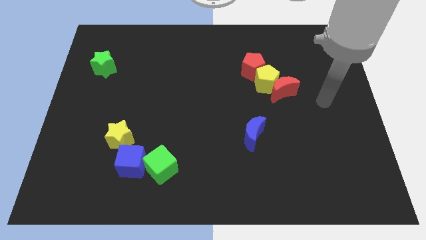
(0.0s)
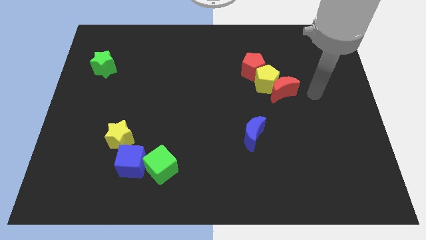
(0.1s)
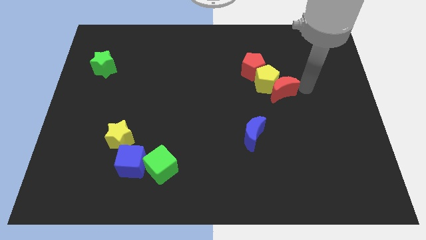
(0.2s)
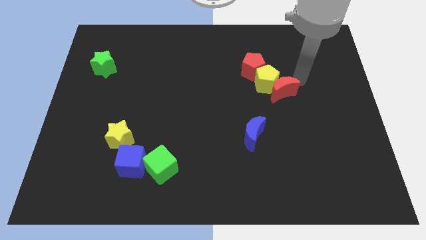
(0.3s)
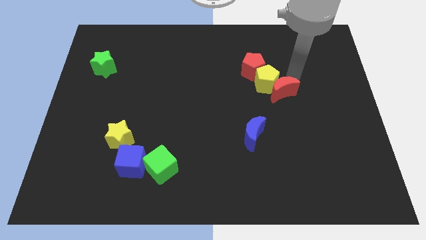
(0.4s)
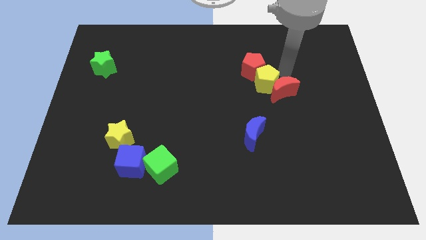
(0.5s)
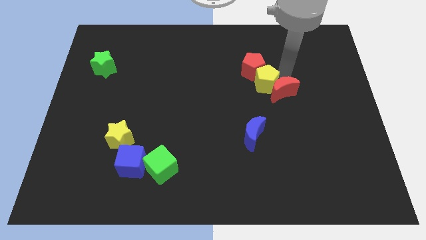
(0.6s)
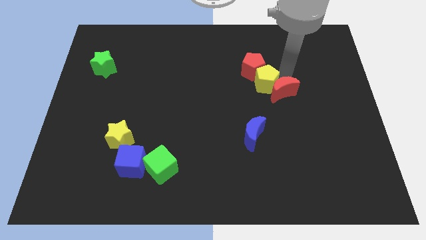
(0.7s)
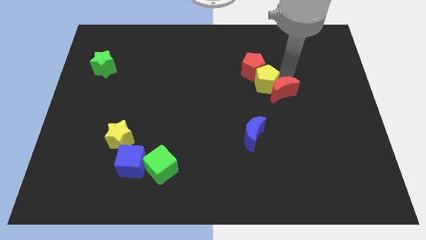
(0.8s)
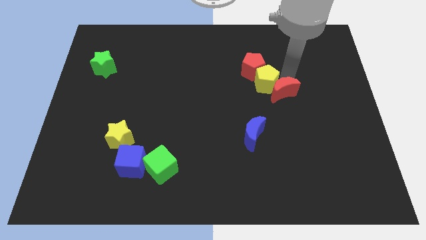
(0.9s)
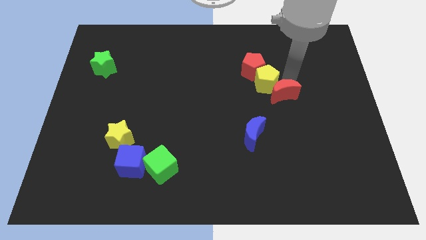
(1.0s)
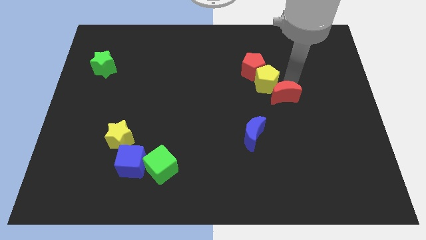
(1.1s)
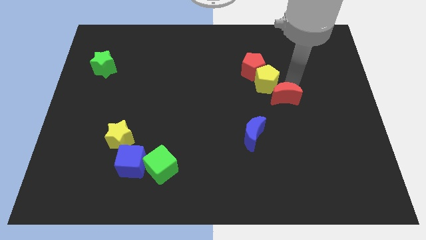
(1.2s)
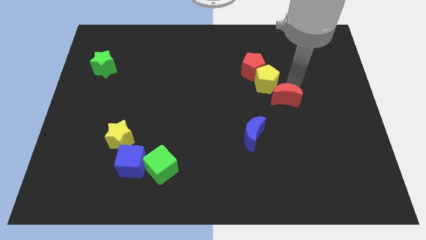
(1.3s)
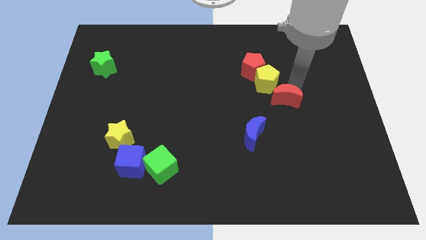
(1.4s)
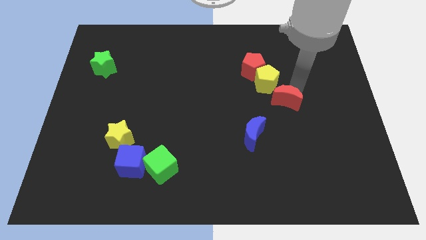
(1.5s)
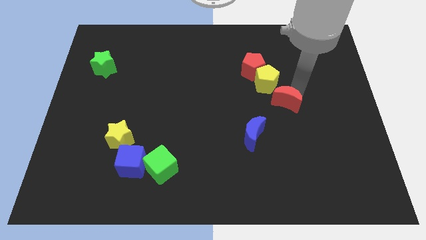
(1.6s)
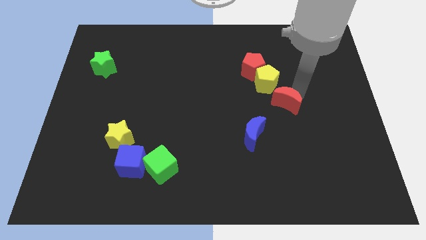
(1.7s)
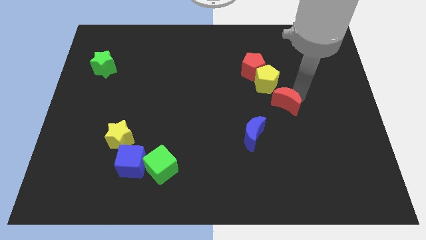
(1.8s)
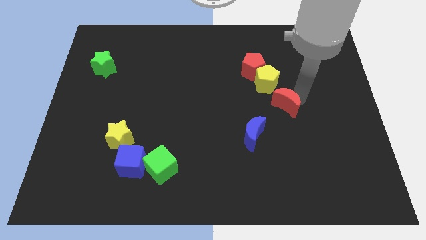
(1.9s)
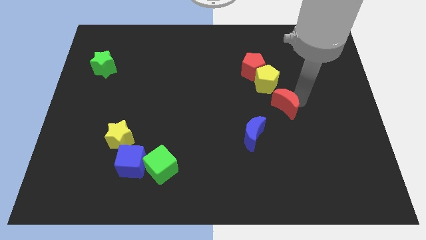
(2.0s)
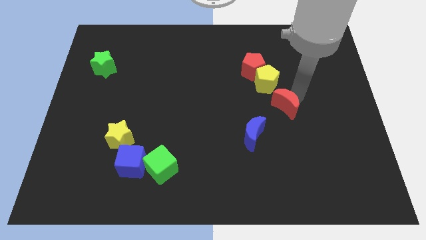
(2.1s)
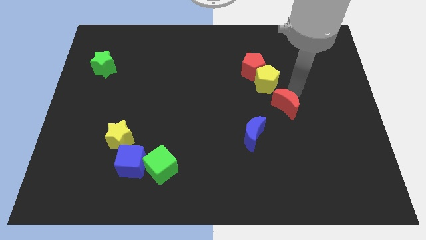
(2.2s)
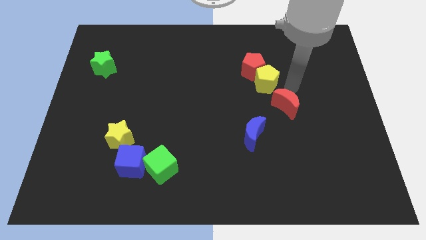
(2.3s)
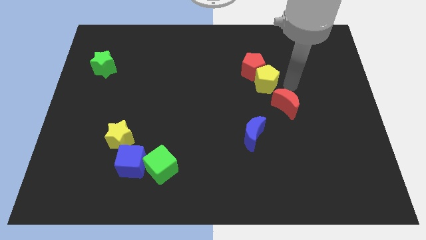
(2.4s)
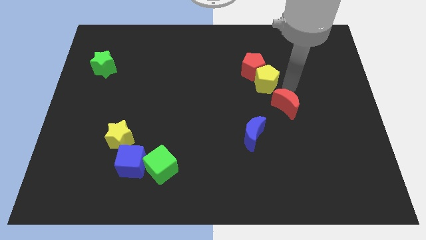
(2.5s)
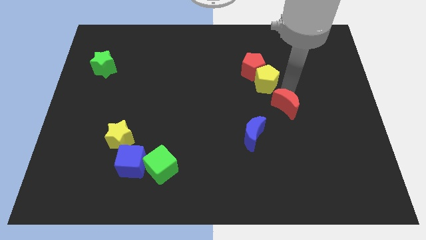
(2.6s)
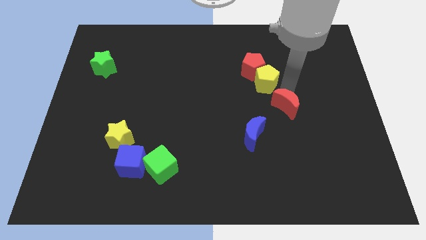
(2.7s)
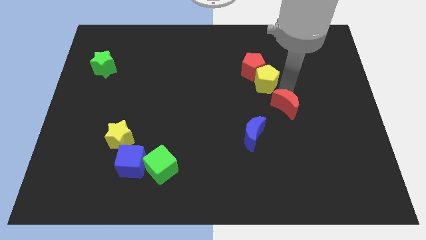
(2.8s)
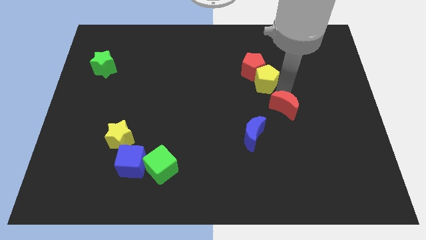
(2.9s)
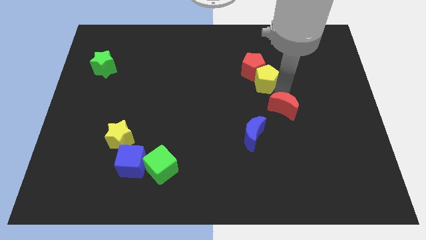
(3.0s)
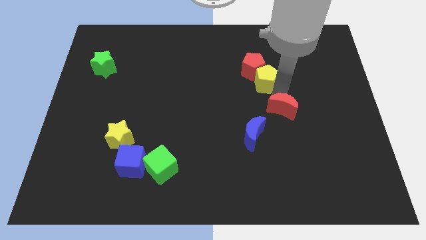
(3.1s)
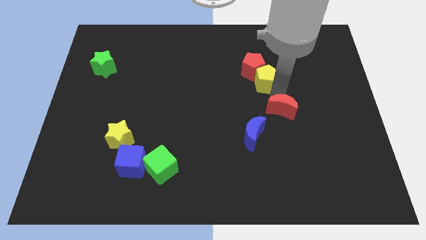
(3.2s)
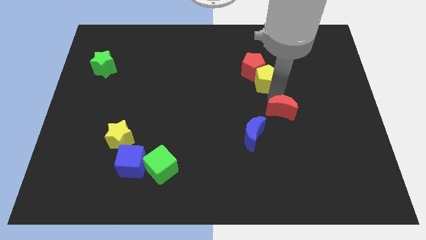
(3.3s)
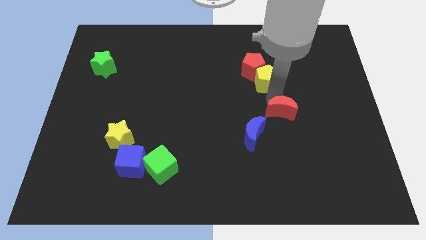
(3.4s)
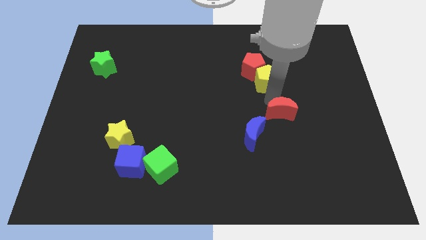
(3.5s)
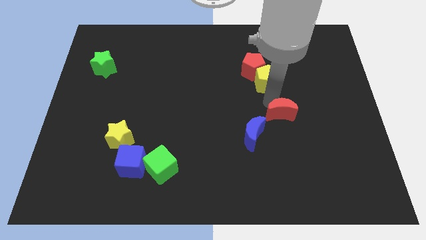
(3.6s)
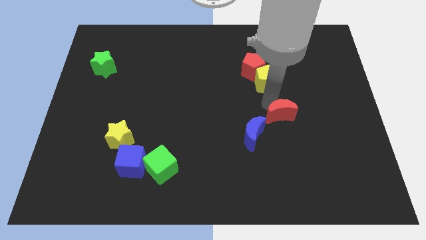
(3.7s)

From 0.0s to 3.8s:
slide the red moon a little bit down

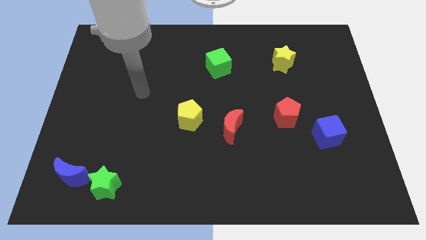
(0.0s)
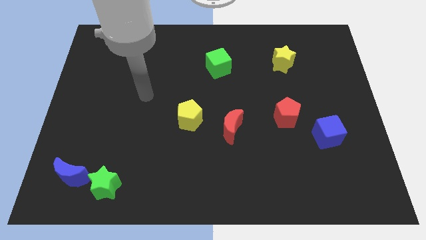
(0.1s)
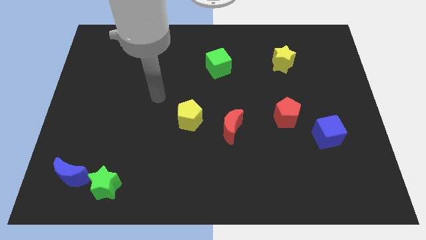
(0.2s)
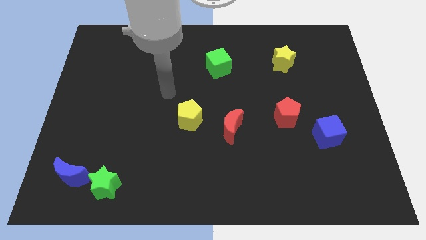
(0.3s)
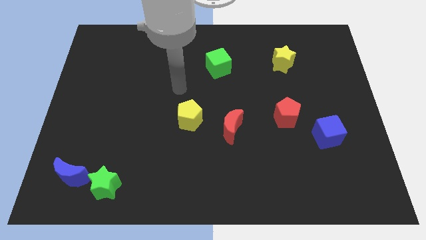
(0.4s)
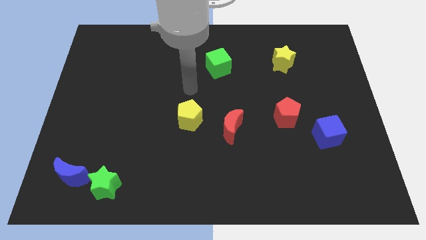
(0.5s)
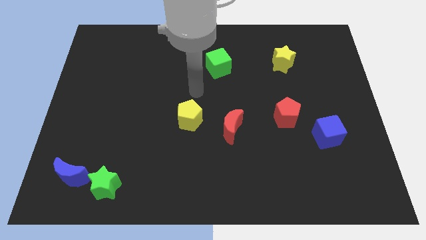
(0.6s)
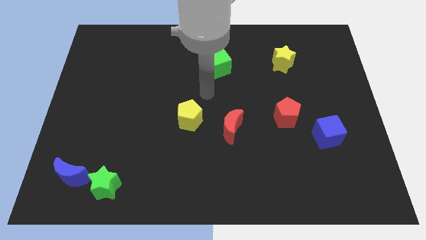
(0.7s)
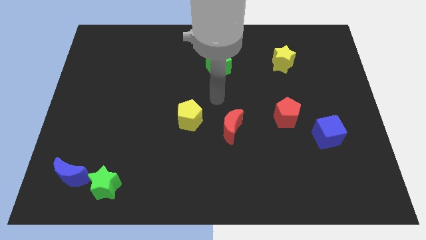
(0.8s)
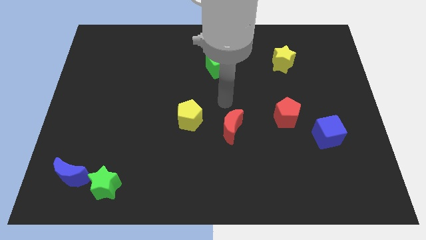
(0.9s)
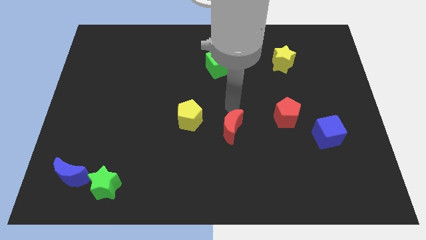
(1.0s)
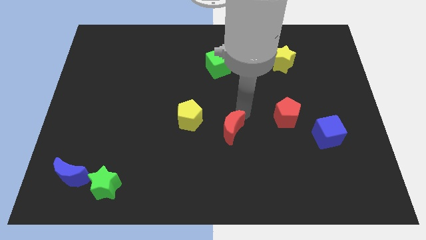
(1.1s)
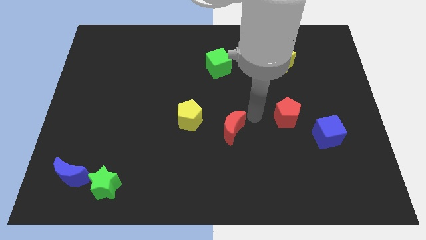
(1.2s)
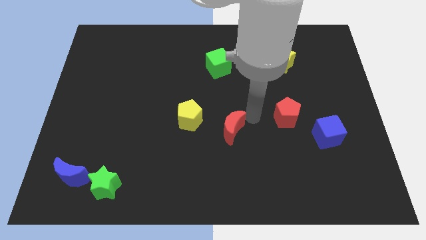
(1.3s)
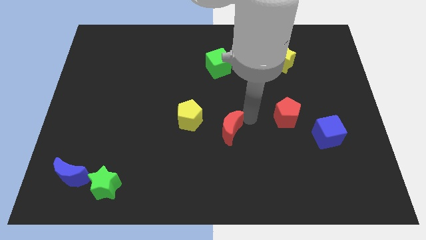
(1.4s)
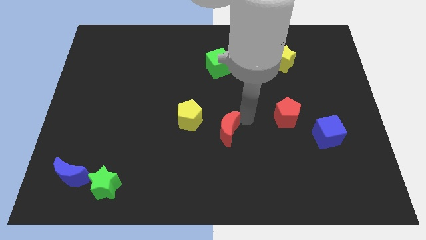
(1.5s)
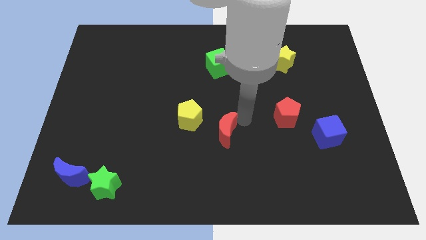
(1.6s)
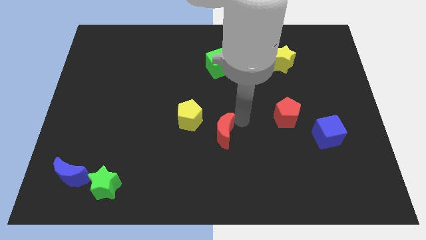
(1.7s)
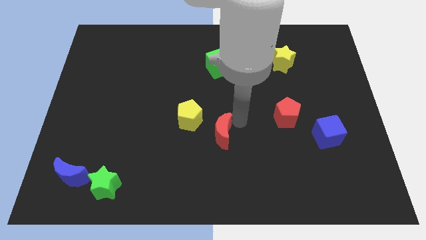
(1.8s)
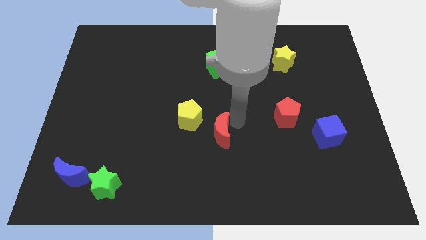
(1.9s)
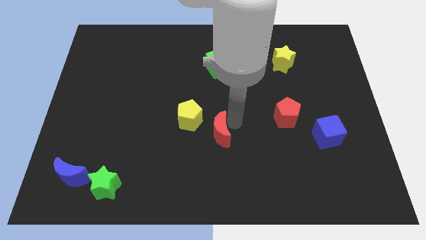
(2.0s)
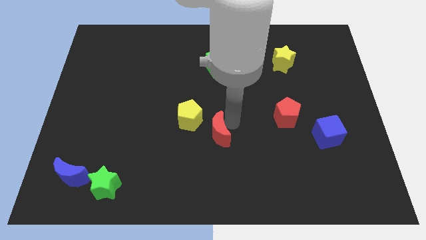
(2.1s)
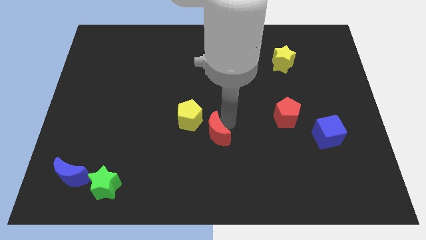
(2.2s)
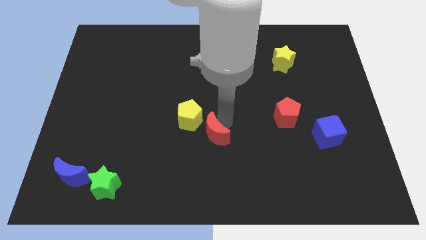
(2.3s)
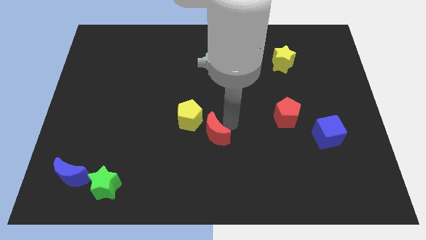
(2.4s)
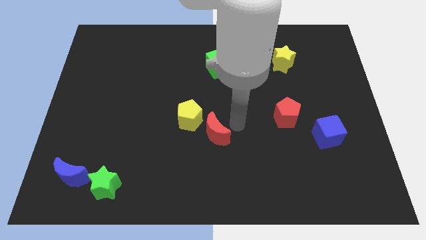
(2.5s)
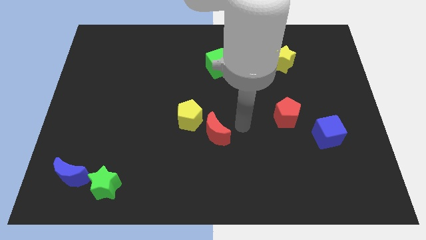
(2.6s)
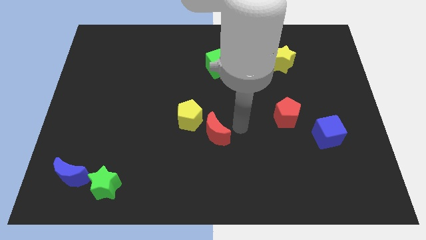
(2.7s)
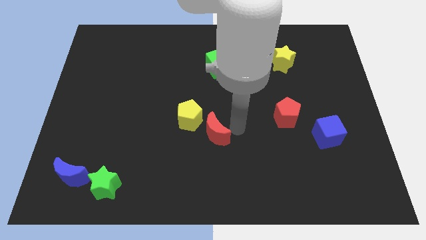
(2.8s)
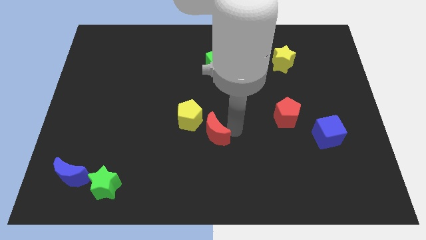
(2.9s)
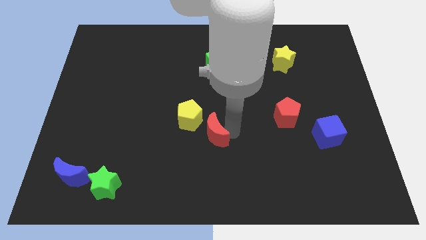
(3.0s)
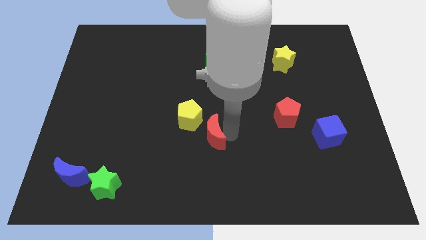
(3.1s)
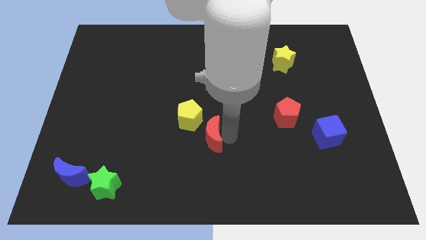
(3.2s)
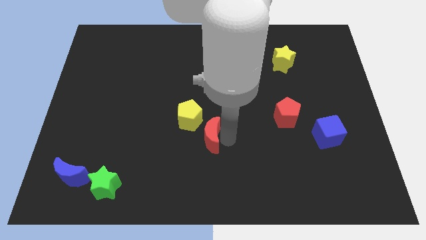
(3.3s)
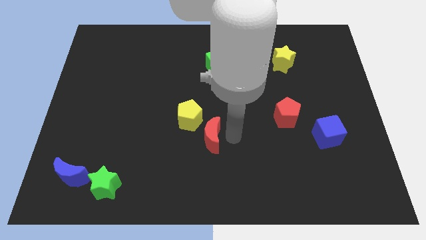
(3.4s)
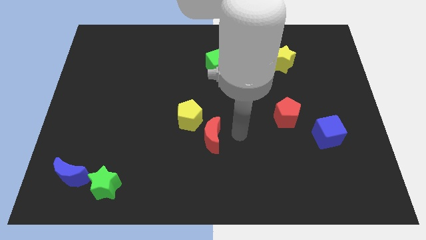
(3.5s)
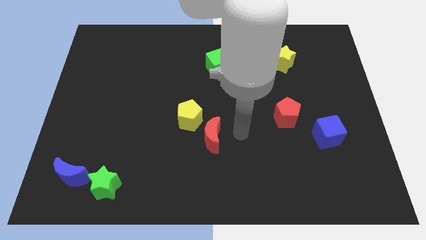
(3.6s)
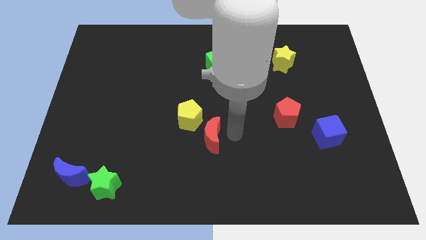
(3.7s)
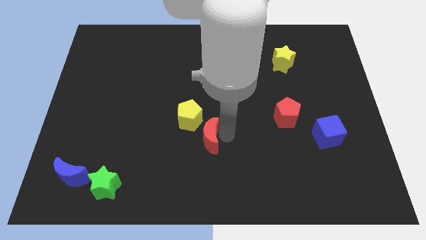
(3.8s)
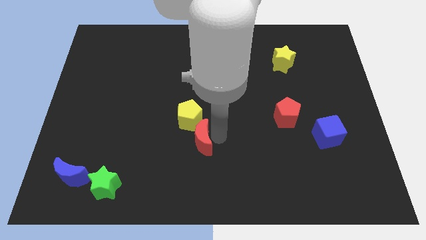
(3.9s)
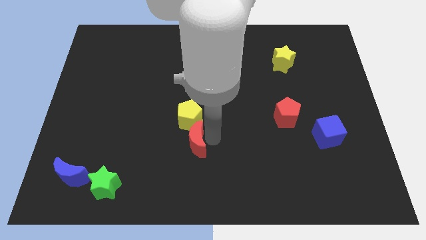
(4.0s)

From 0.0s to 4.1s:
push the red moon slightly to the left
